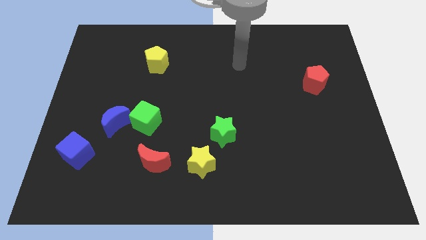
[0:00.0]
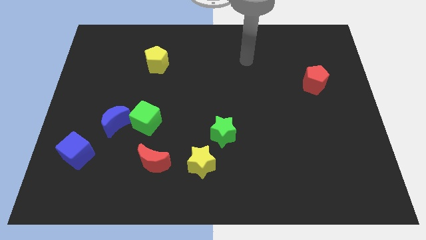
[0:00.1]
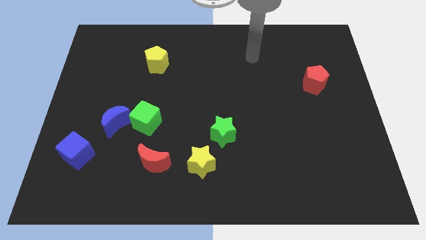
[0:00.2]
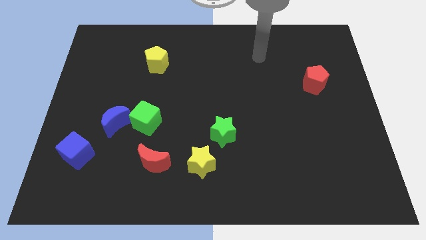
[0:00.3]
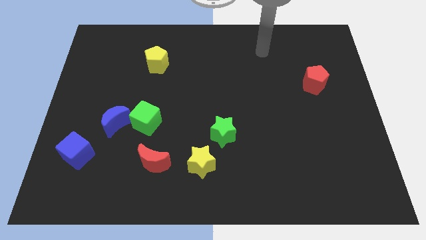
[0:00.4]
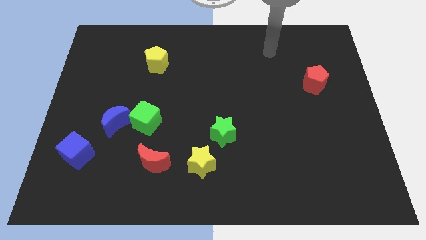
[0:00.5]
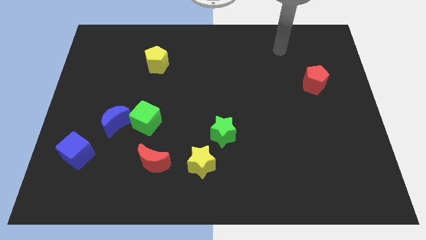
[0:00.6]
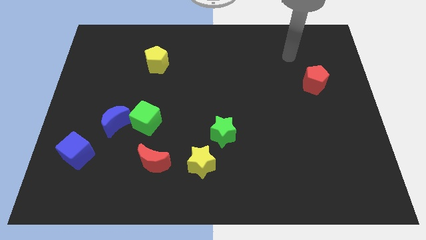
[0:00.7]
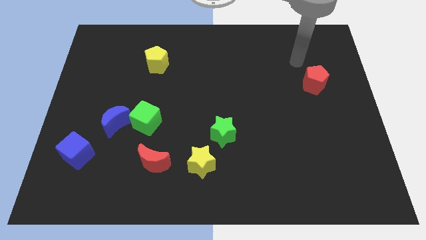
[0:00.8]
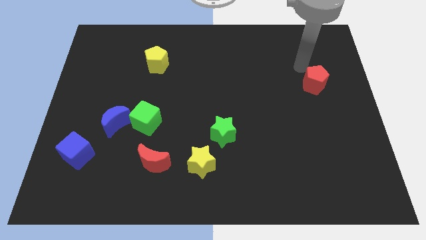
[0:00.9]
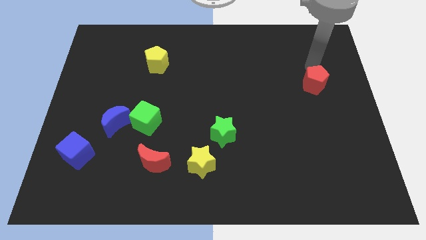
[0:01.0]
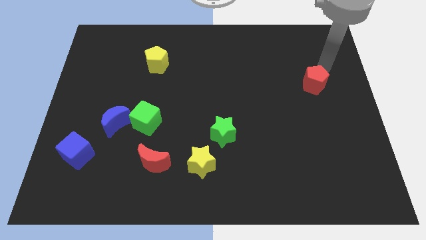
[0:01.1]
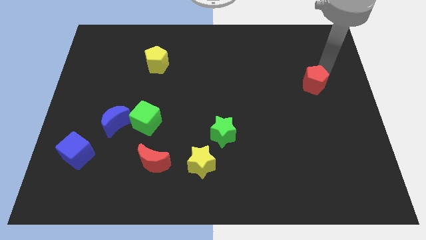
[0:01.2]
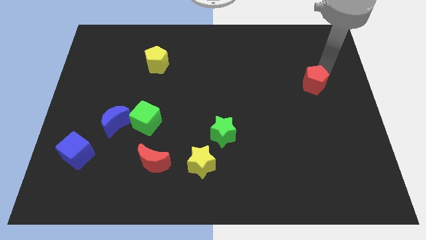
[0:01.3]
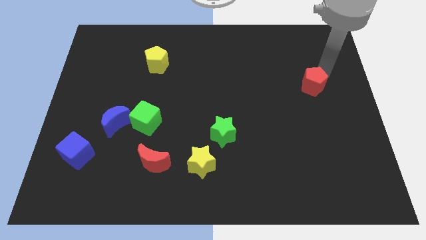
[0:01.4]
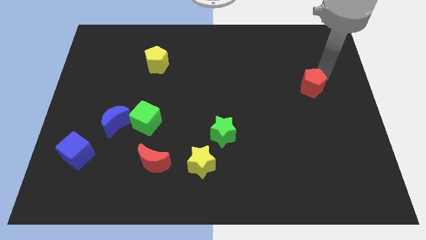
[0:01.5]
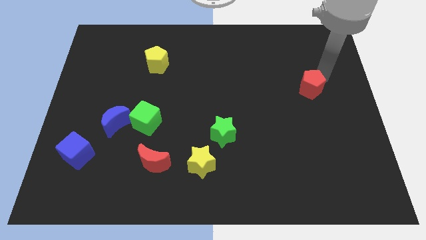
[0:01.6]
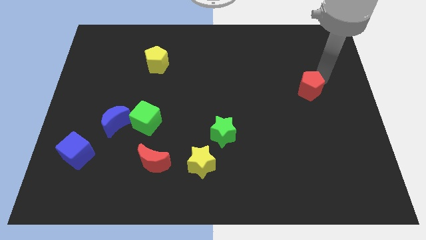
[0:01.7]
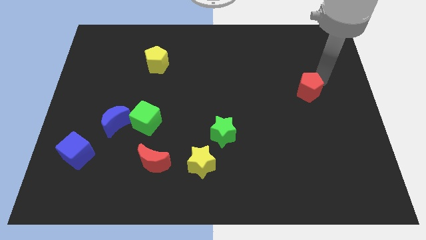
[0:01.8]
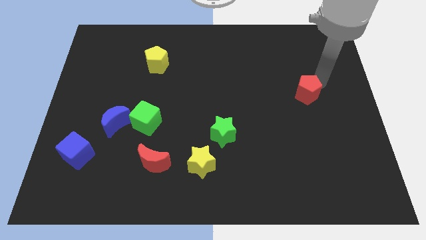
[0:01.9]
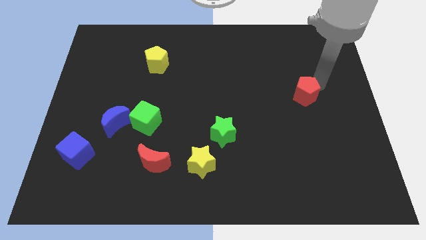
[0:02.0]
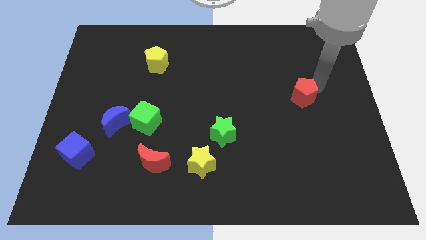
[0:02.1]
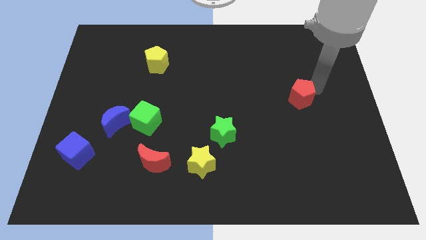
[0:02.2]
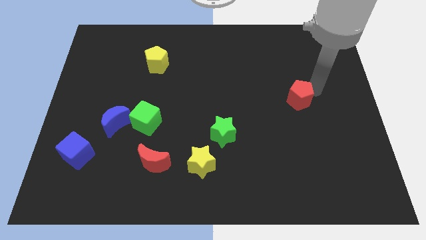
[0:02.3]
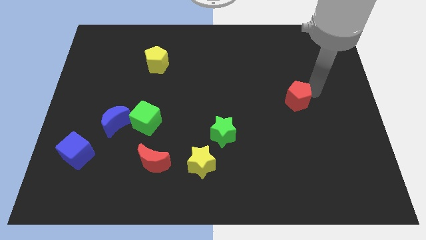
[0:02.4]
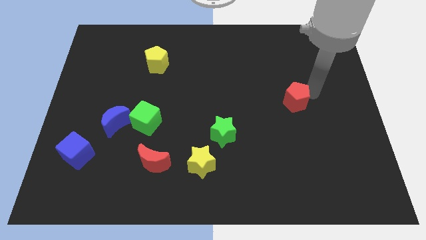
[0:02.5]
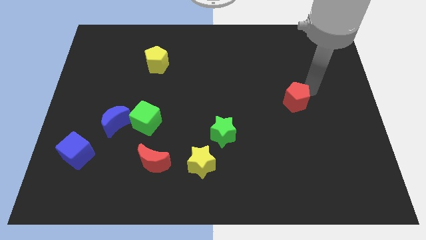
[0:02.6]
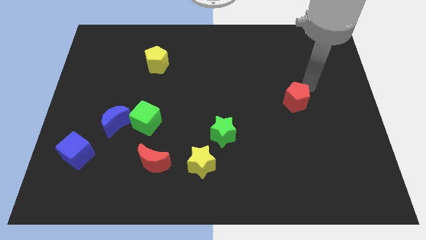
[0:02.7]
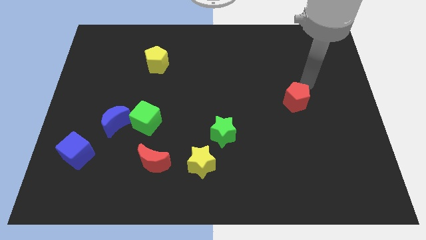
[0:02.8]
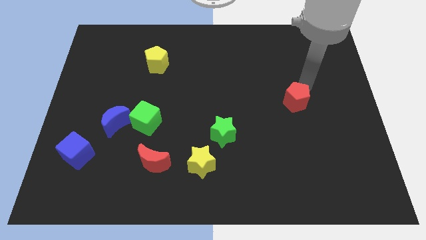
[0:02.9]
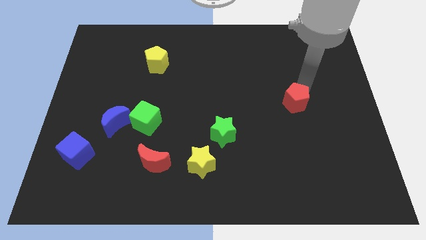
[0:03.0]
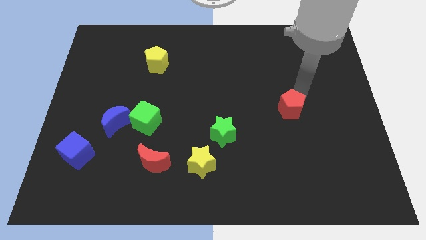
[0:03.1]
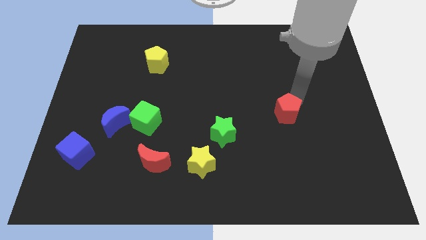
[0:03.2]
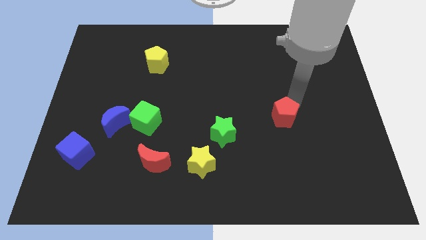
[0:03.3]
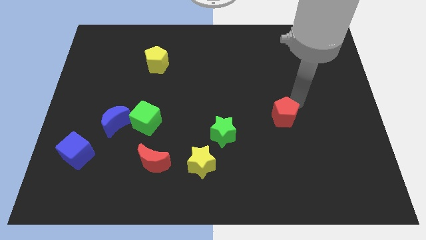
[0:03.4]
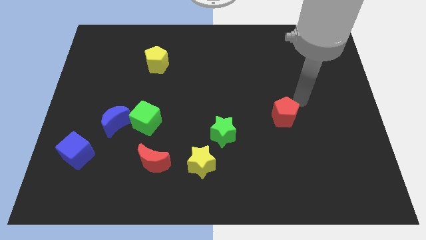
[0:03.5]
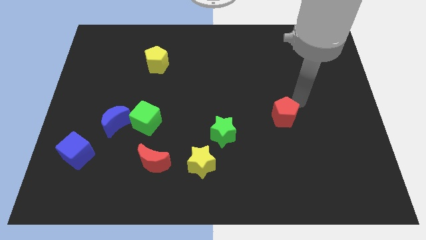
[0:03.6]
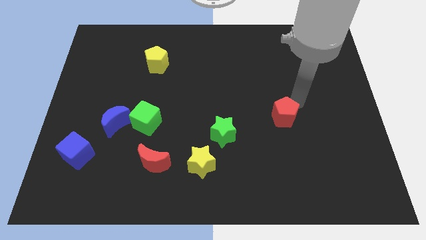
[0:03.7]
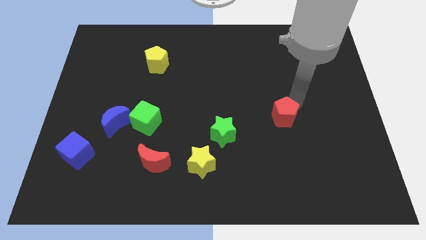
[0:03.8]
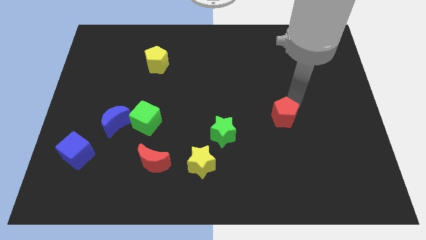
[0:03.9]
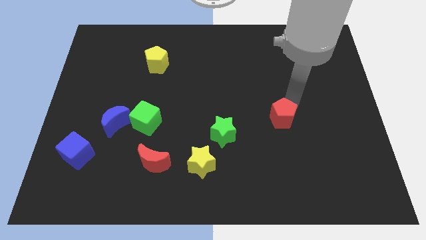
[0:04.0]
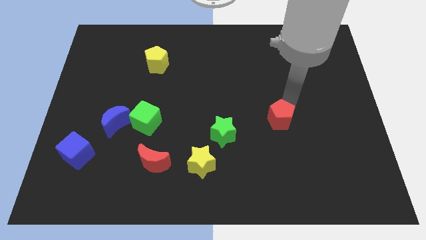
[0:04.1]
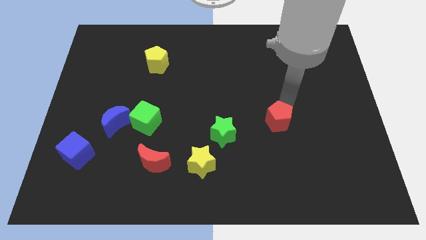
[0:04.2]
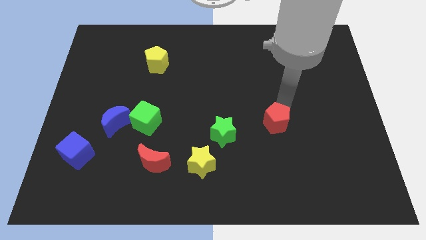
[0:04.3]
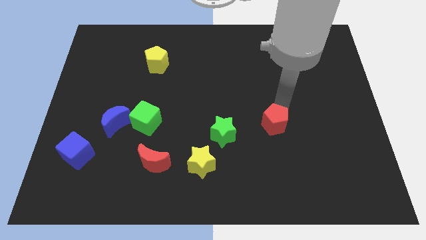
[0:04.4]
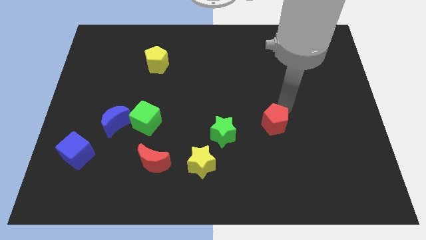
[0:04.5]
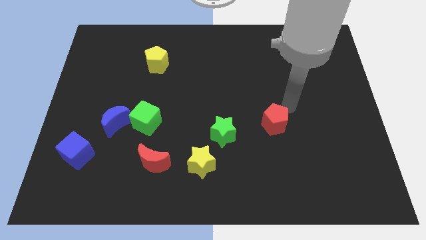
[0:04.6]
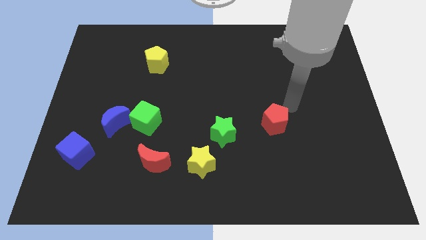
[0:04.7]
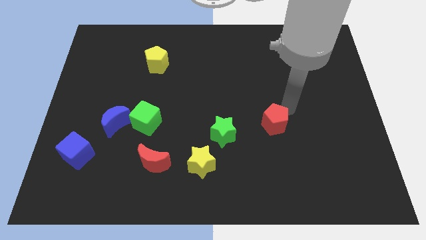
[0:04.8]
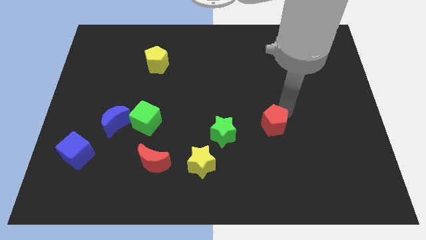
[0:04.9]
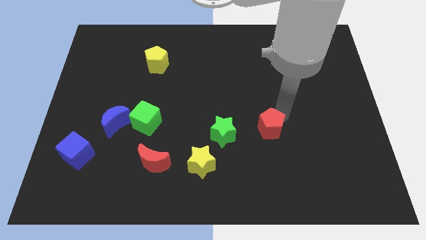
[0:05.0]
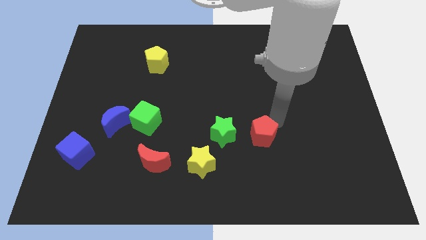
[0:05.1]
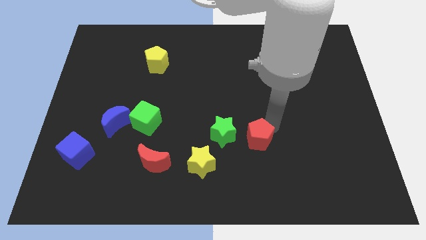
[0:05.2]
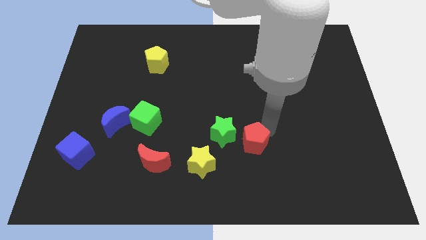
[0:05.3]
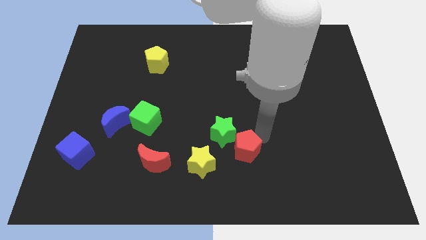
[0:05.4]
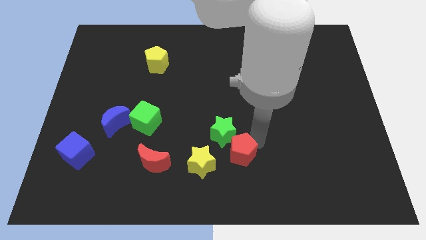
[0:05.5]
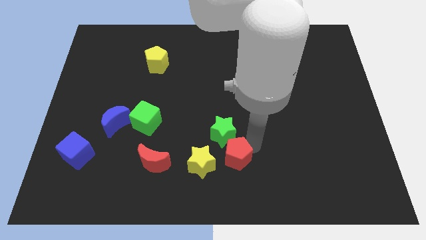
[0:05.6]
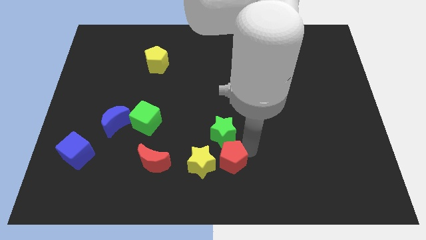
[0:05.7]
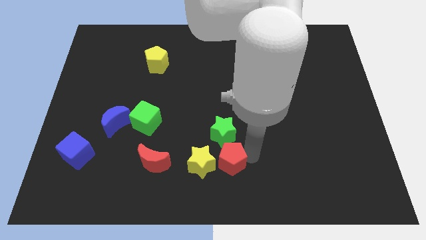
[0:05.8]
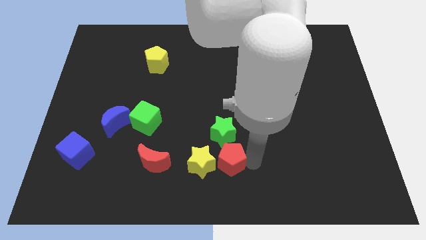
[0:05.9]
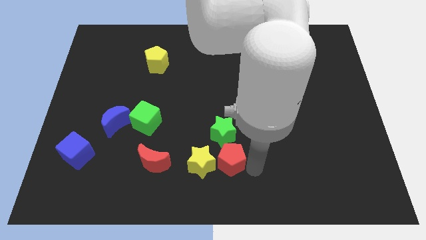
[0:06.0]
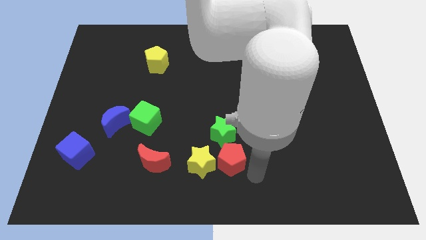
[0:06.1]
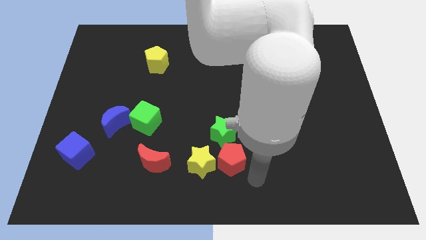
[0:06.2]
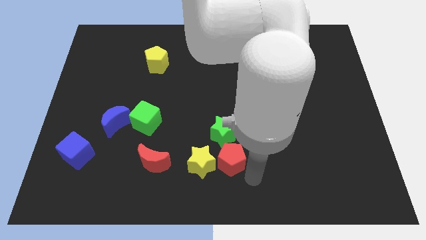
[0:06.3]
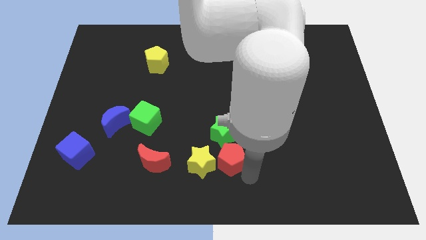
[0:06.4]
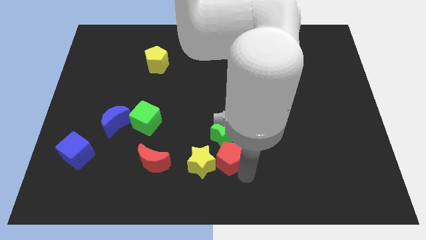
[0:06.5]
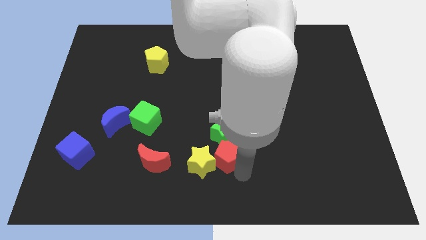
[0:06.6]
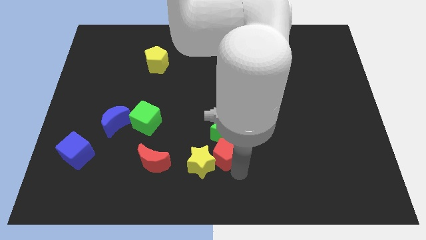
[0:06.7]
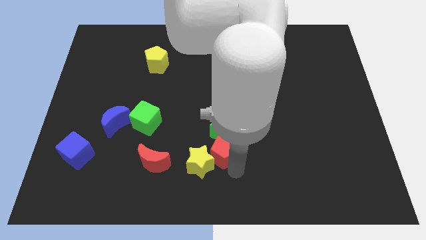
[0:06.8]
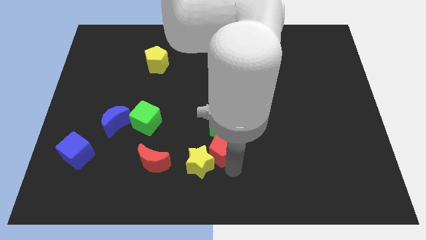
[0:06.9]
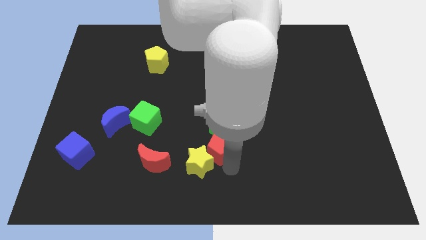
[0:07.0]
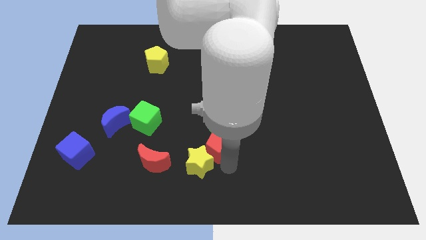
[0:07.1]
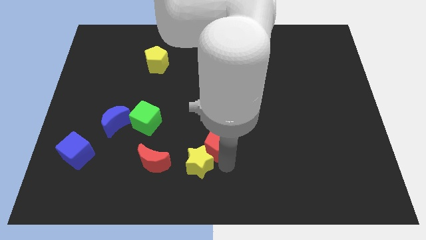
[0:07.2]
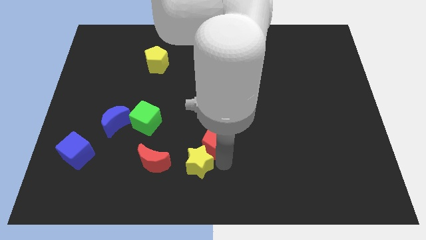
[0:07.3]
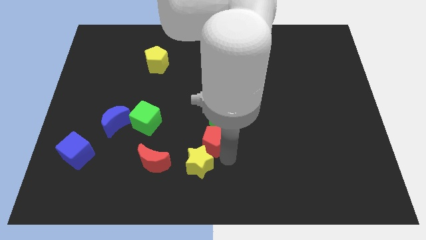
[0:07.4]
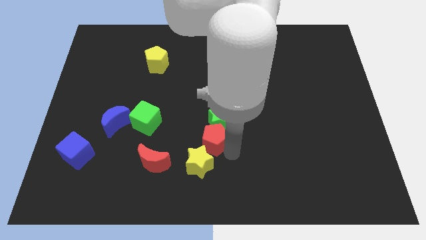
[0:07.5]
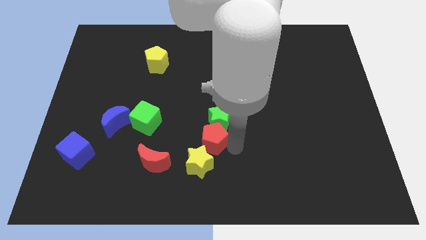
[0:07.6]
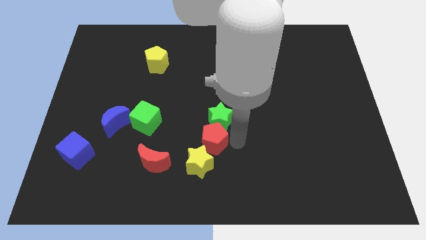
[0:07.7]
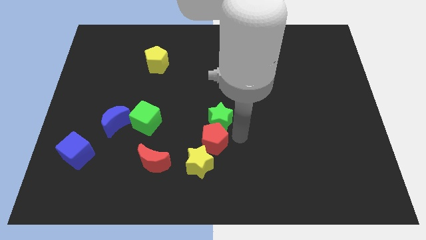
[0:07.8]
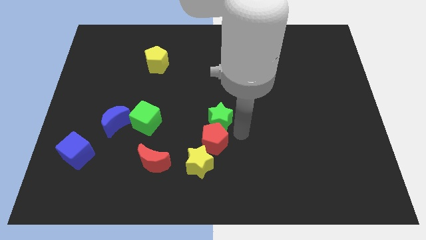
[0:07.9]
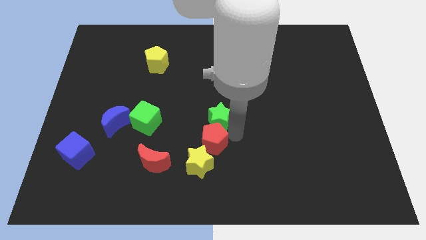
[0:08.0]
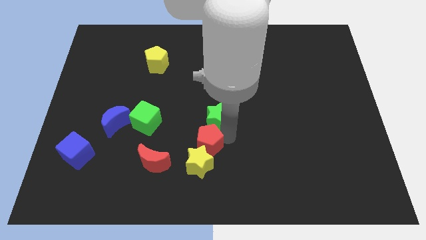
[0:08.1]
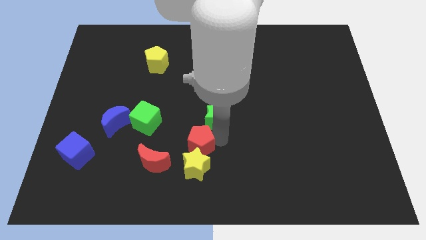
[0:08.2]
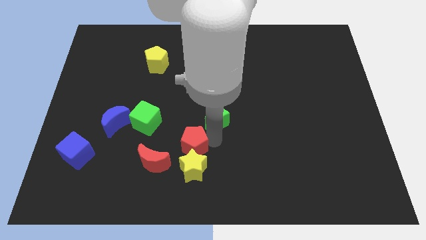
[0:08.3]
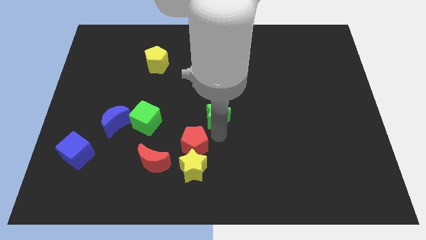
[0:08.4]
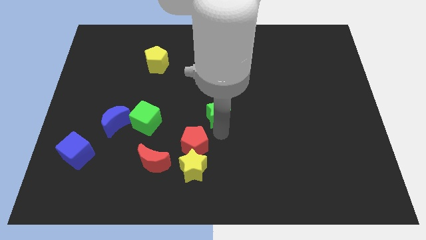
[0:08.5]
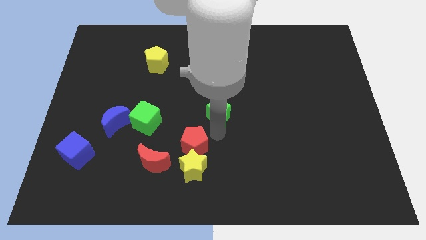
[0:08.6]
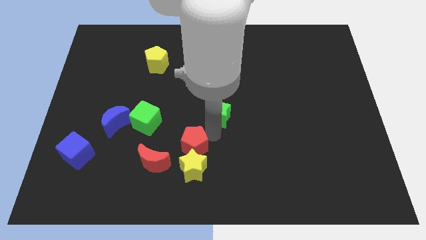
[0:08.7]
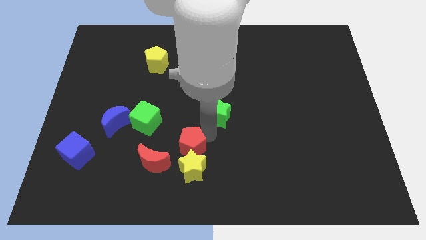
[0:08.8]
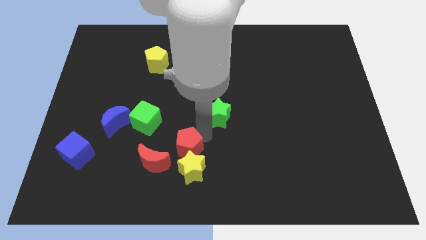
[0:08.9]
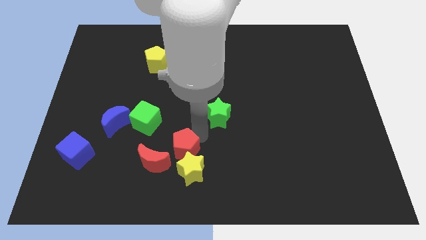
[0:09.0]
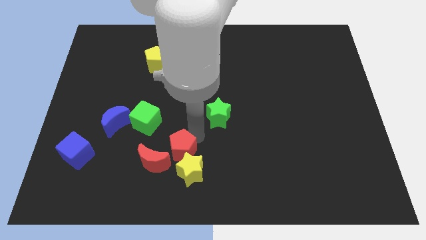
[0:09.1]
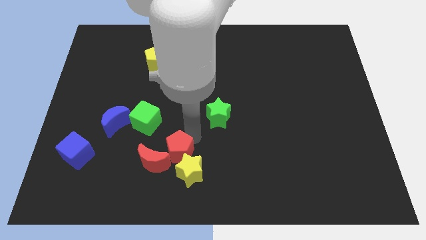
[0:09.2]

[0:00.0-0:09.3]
move the red pentagon to the red moon
